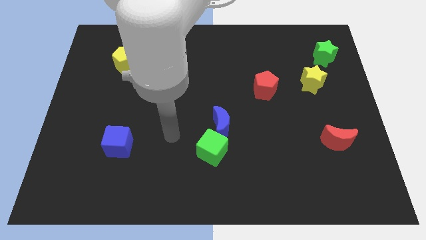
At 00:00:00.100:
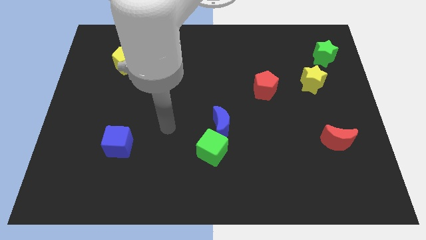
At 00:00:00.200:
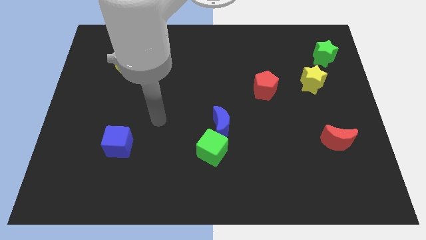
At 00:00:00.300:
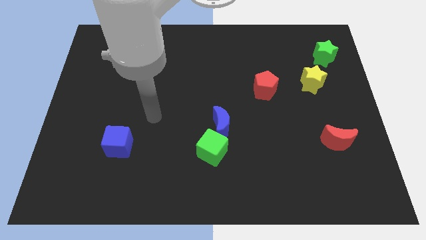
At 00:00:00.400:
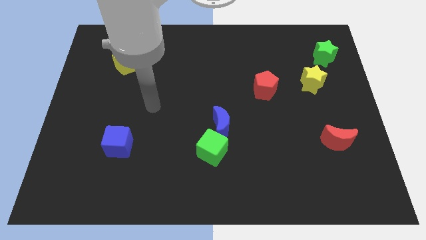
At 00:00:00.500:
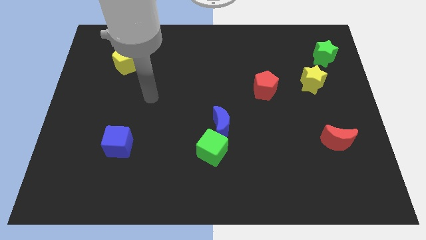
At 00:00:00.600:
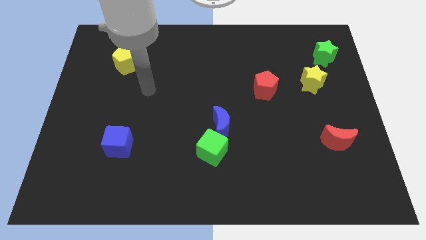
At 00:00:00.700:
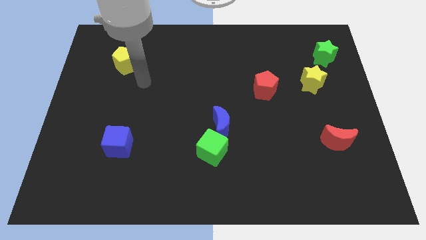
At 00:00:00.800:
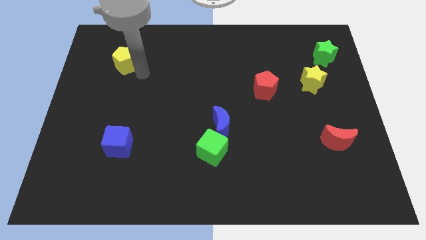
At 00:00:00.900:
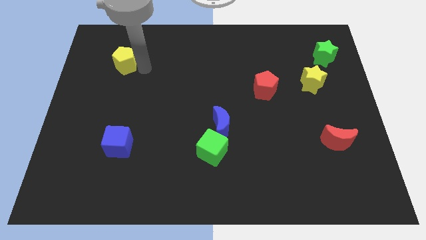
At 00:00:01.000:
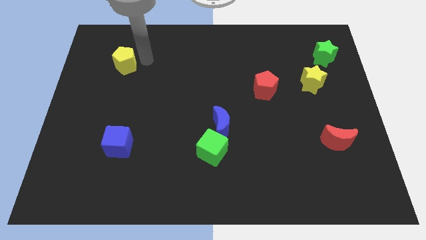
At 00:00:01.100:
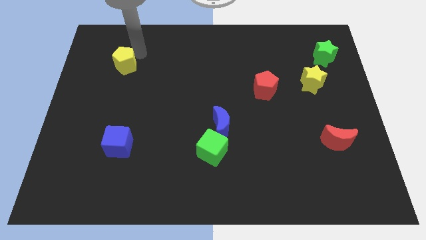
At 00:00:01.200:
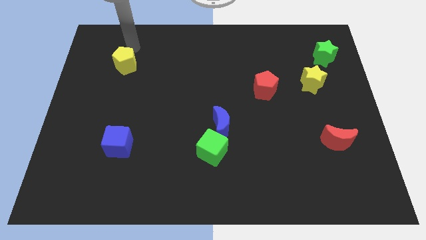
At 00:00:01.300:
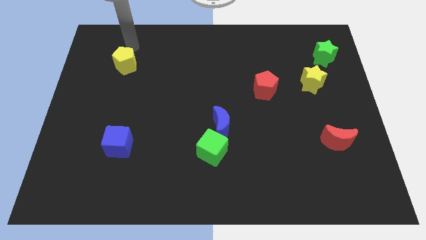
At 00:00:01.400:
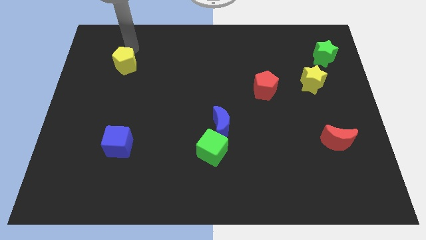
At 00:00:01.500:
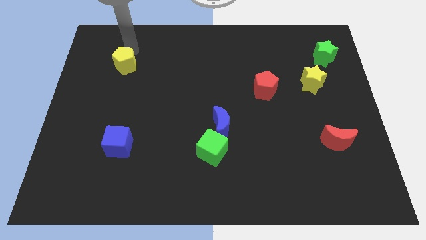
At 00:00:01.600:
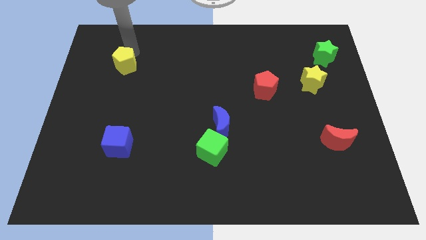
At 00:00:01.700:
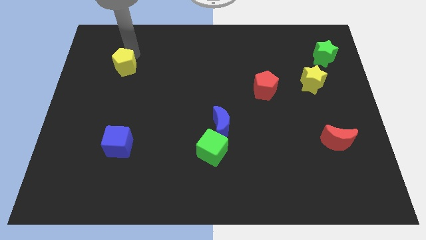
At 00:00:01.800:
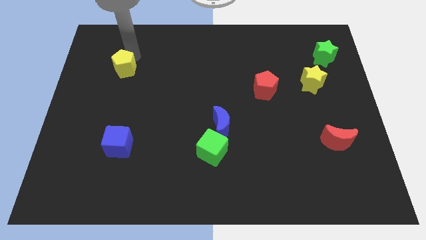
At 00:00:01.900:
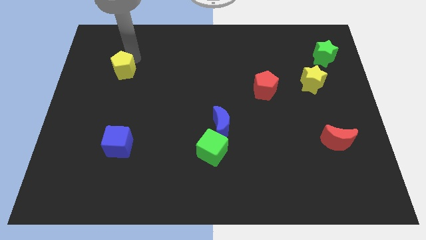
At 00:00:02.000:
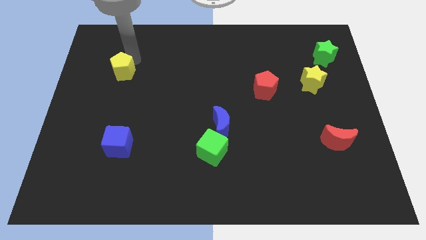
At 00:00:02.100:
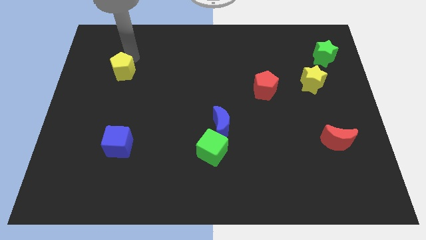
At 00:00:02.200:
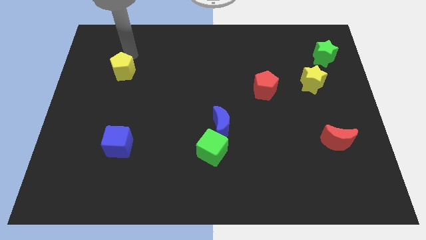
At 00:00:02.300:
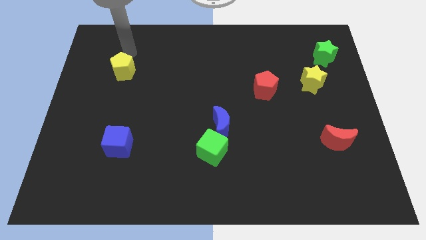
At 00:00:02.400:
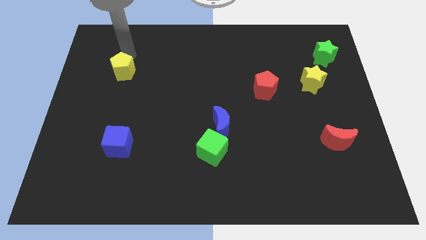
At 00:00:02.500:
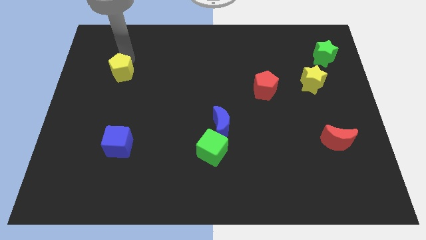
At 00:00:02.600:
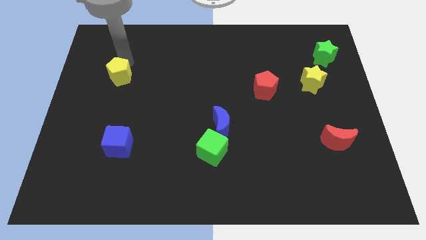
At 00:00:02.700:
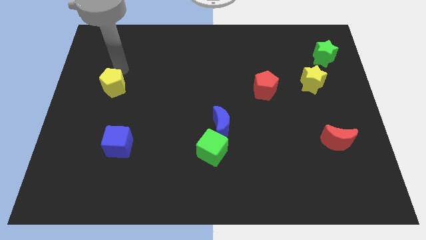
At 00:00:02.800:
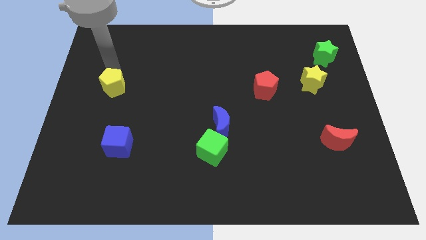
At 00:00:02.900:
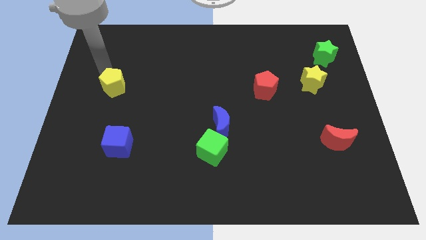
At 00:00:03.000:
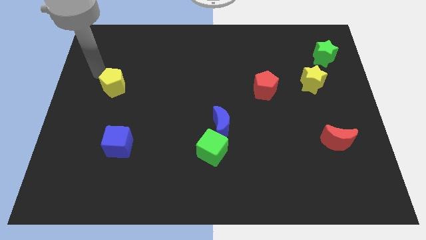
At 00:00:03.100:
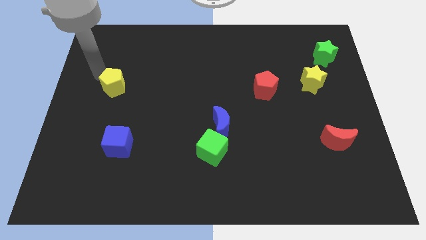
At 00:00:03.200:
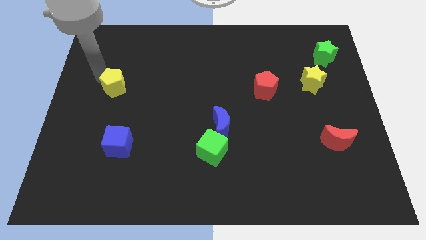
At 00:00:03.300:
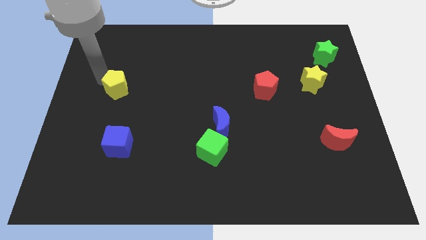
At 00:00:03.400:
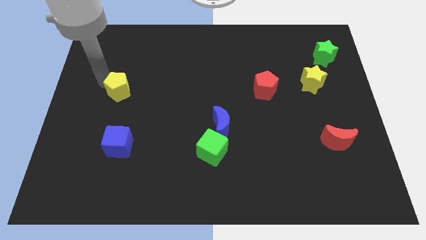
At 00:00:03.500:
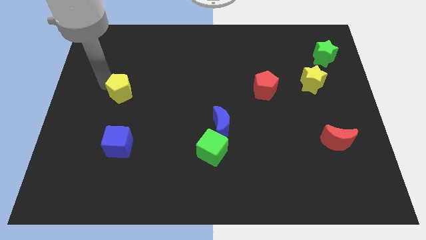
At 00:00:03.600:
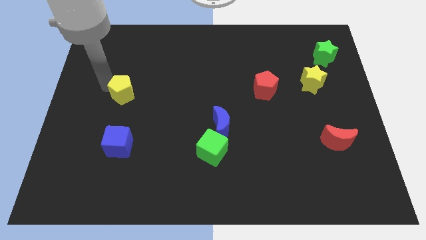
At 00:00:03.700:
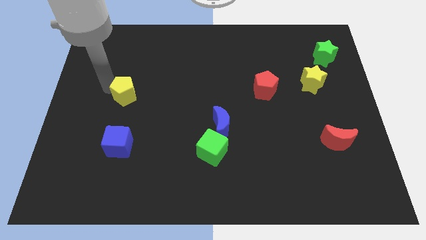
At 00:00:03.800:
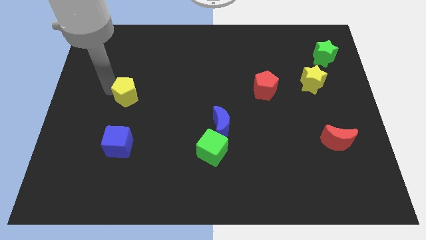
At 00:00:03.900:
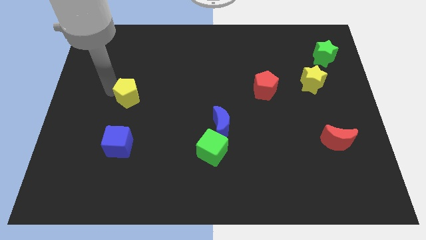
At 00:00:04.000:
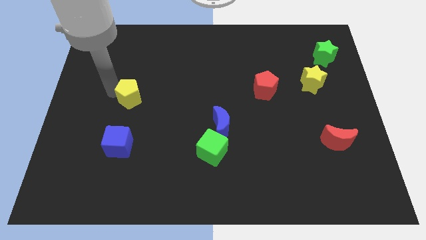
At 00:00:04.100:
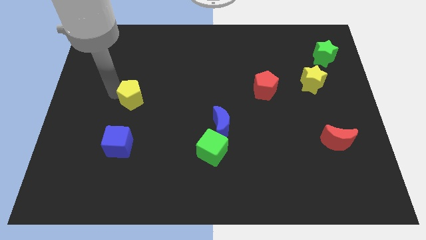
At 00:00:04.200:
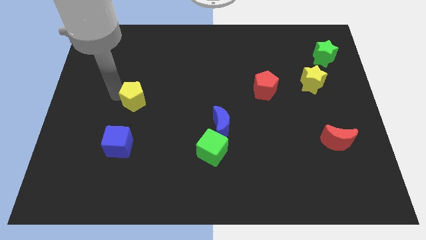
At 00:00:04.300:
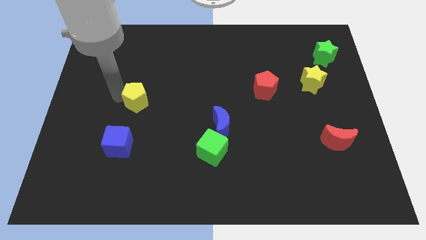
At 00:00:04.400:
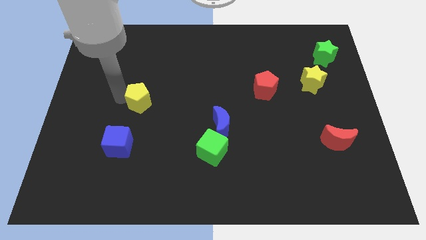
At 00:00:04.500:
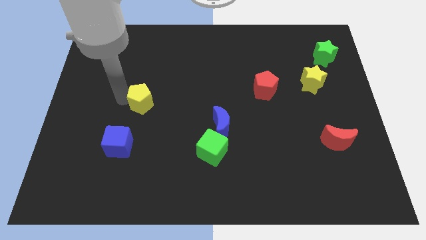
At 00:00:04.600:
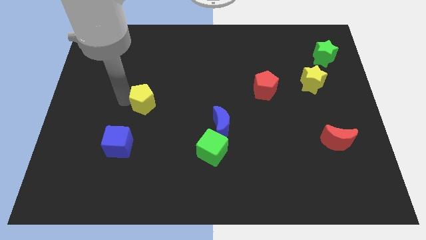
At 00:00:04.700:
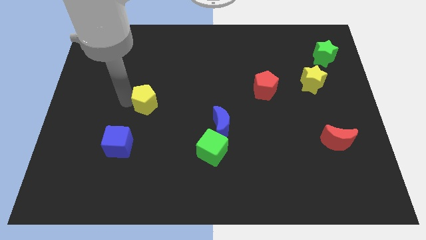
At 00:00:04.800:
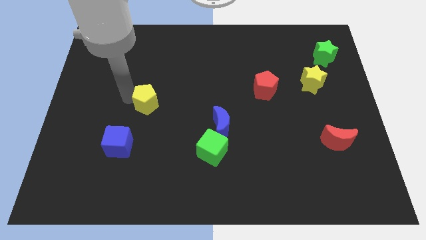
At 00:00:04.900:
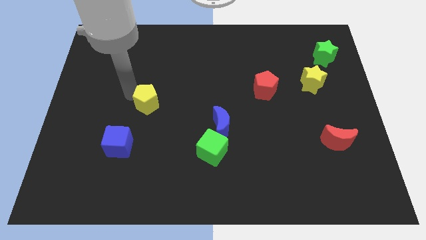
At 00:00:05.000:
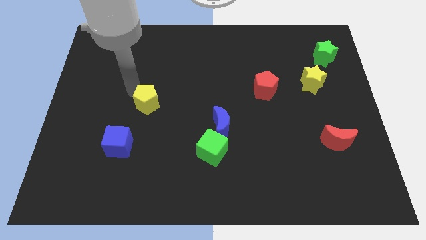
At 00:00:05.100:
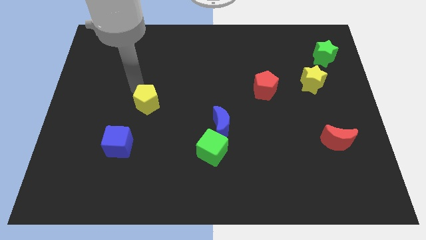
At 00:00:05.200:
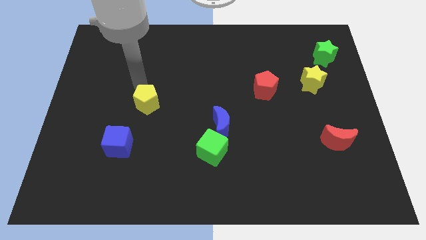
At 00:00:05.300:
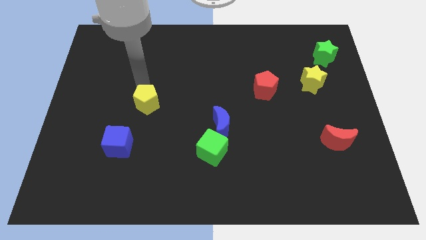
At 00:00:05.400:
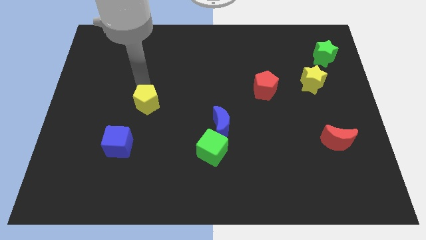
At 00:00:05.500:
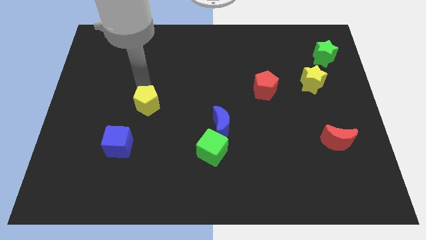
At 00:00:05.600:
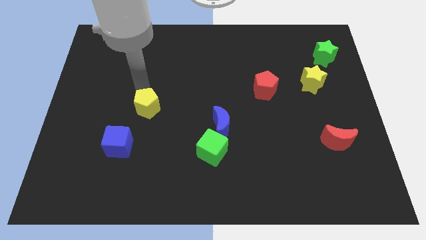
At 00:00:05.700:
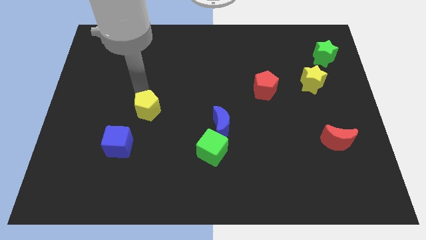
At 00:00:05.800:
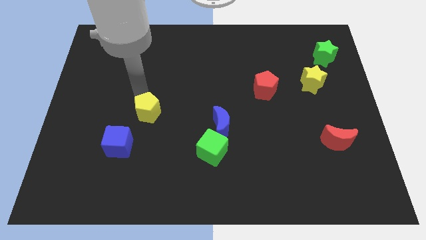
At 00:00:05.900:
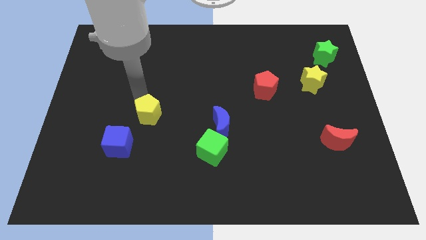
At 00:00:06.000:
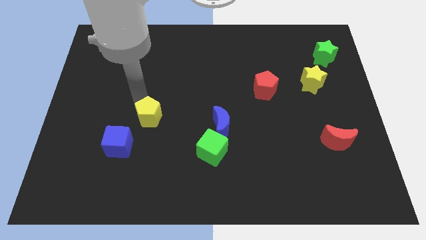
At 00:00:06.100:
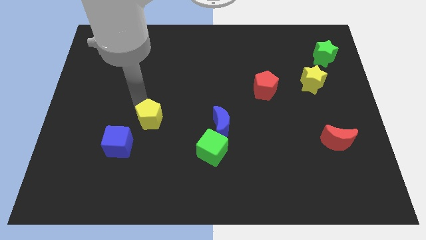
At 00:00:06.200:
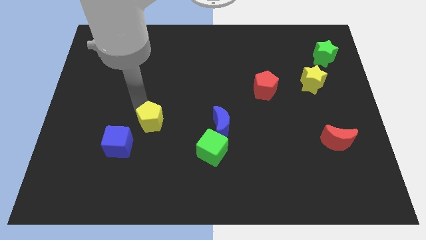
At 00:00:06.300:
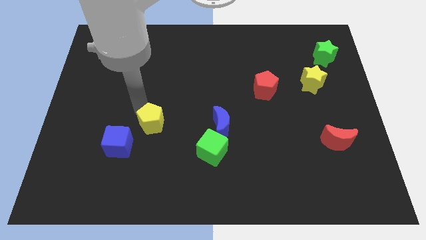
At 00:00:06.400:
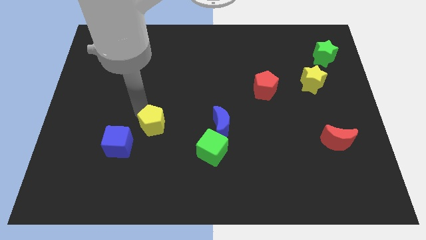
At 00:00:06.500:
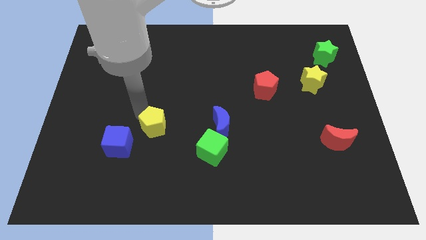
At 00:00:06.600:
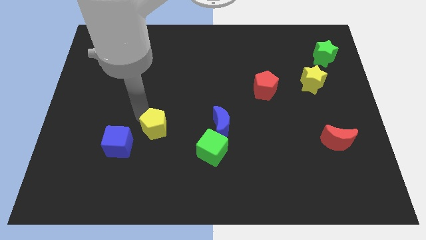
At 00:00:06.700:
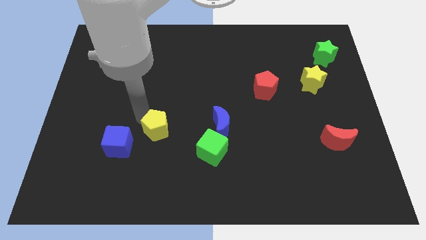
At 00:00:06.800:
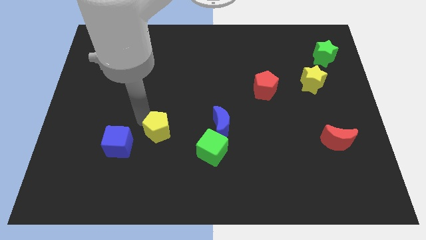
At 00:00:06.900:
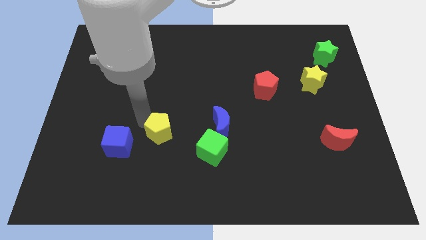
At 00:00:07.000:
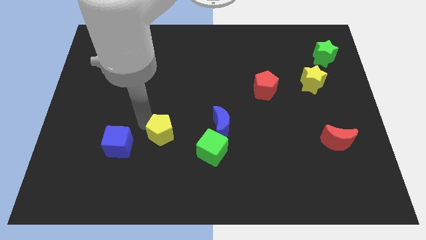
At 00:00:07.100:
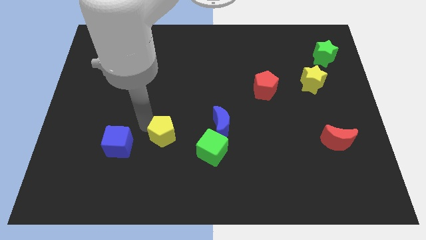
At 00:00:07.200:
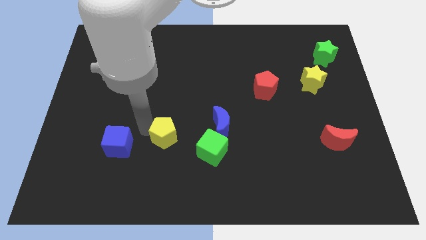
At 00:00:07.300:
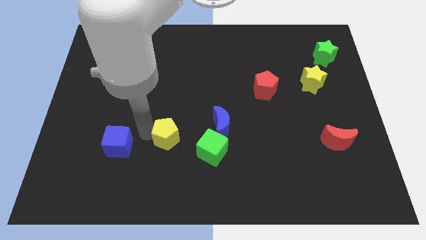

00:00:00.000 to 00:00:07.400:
push the yellow pentagon to the top left of the green cube
